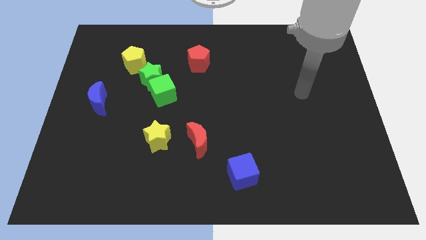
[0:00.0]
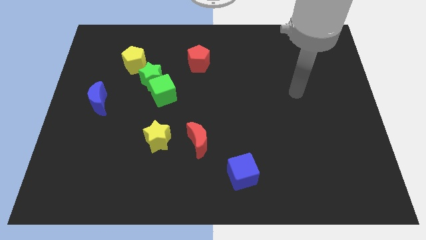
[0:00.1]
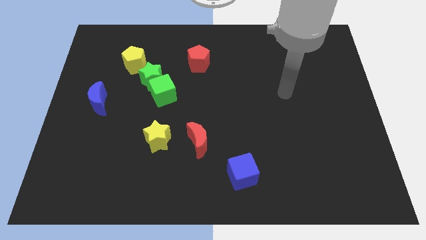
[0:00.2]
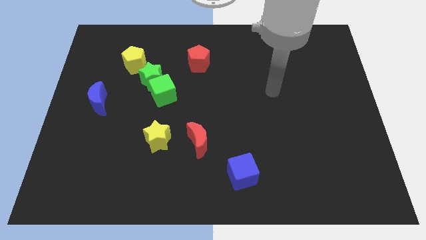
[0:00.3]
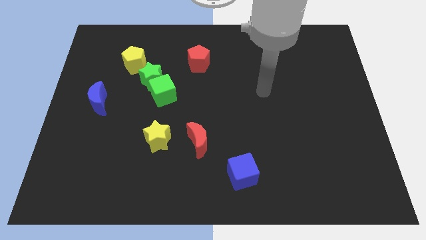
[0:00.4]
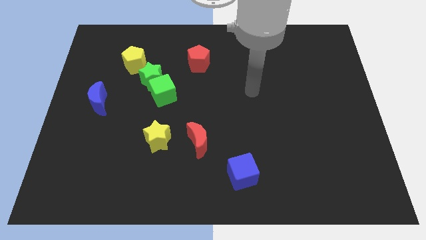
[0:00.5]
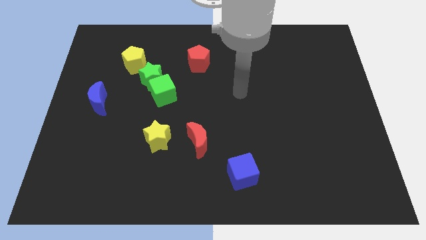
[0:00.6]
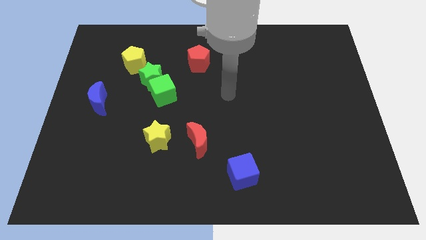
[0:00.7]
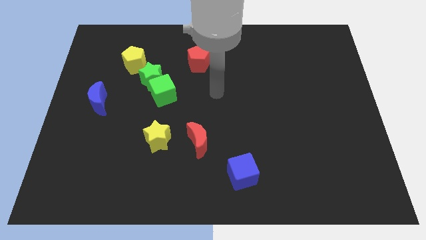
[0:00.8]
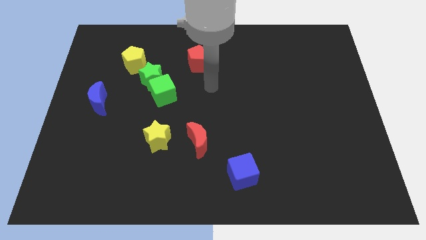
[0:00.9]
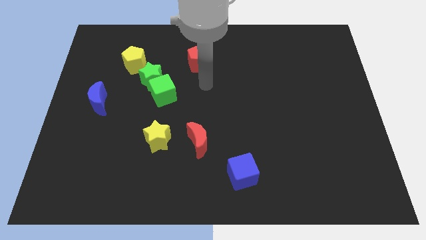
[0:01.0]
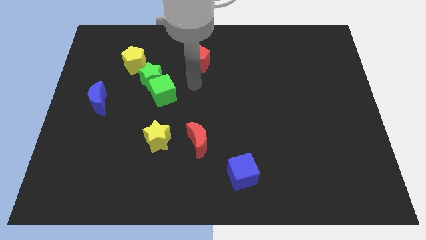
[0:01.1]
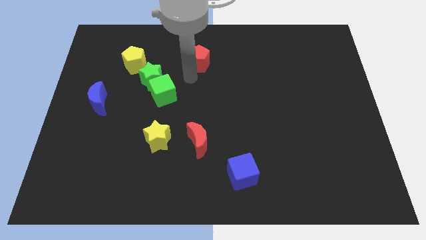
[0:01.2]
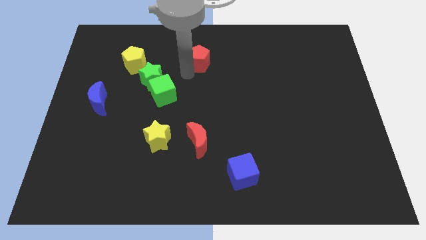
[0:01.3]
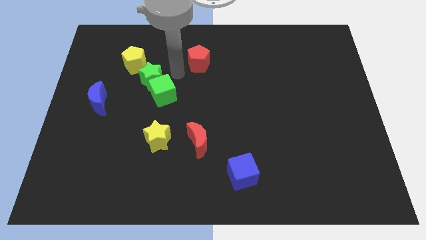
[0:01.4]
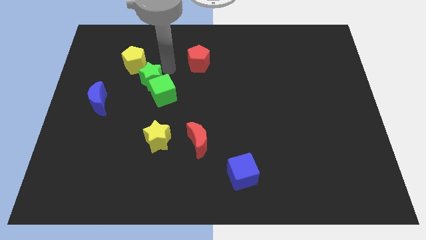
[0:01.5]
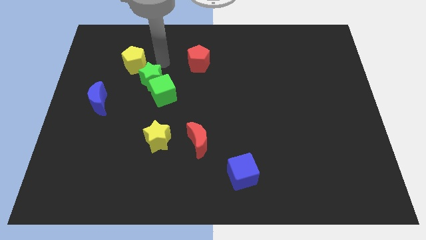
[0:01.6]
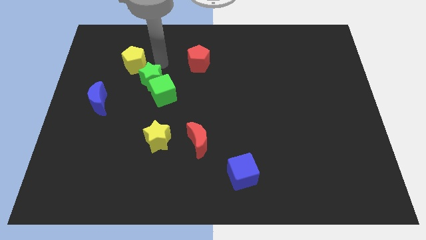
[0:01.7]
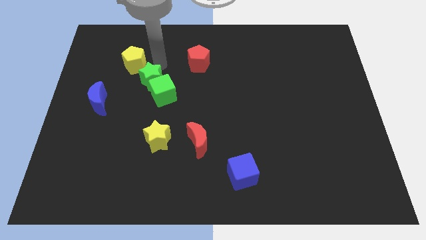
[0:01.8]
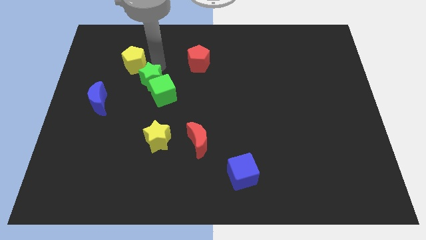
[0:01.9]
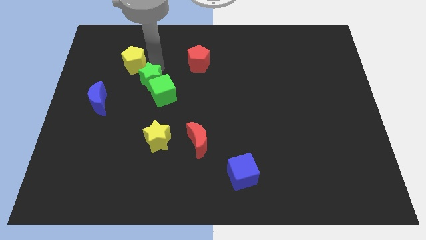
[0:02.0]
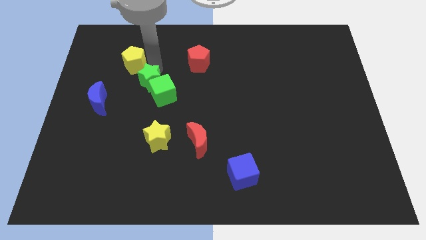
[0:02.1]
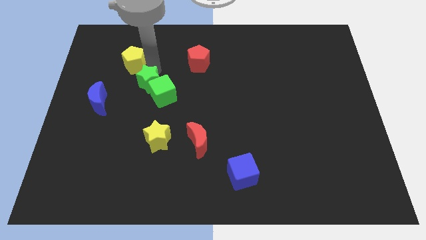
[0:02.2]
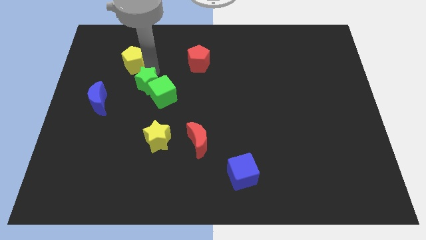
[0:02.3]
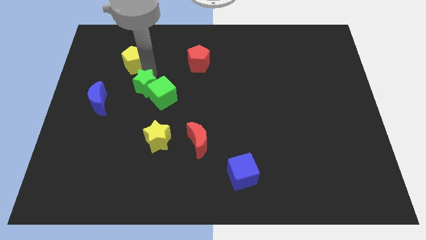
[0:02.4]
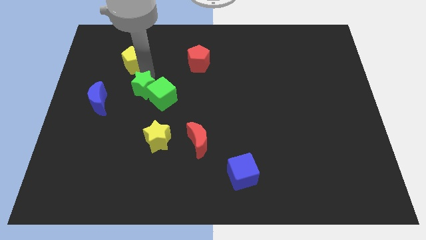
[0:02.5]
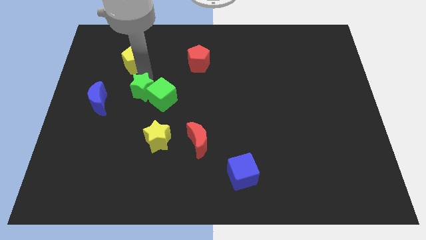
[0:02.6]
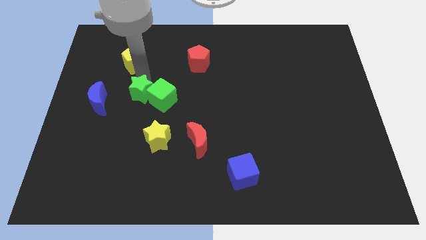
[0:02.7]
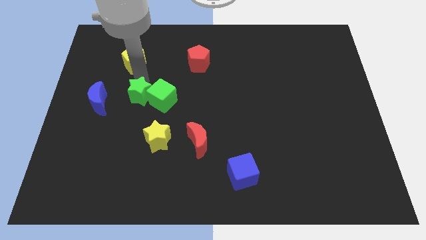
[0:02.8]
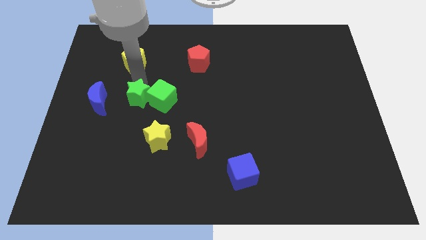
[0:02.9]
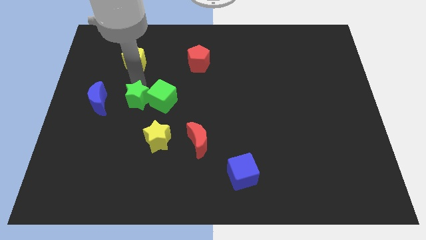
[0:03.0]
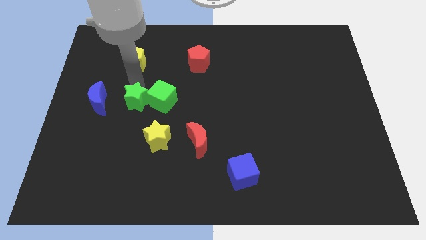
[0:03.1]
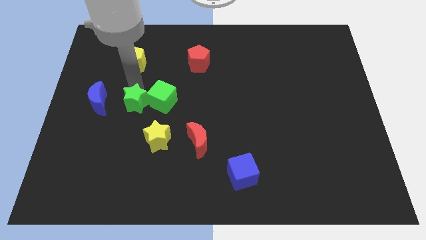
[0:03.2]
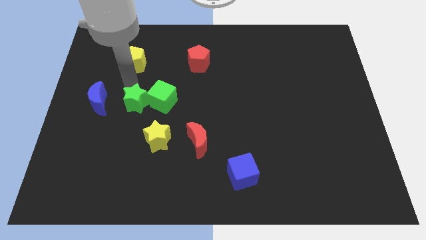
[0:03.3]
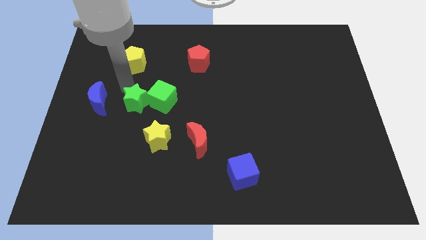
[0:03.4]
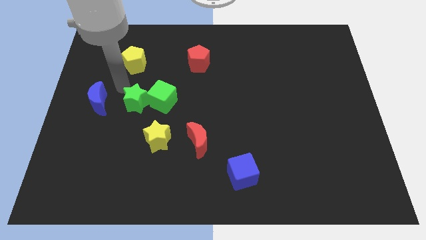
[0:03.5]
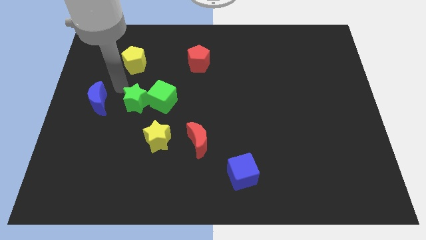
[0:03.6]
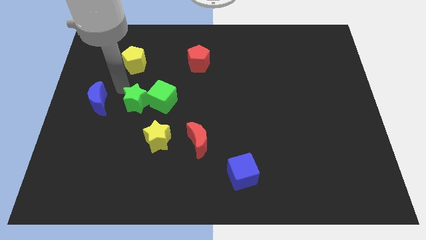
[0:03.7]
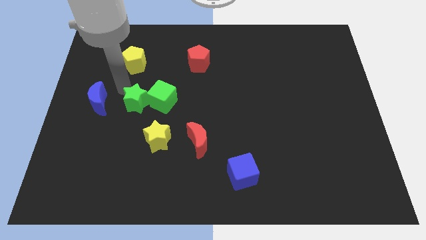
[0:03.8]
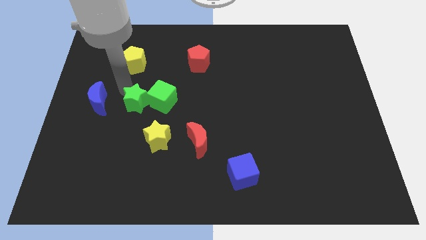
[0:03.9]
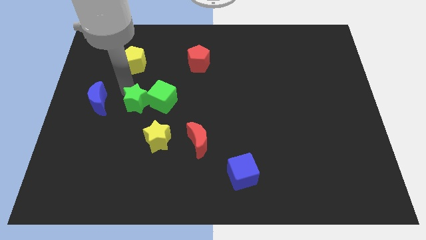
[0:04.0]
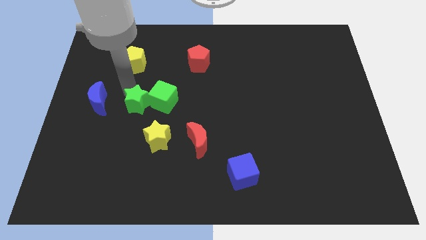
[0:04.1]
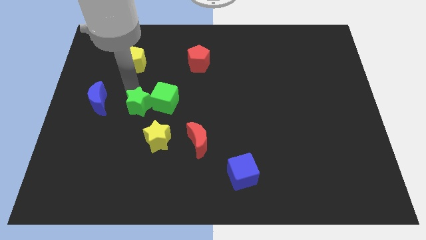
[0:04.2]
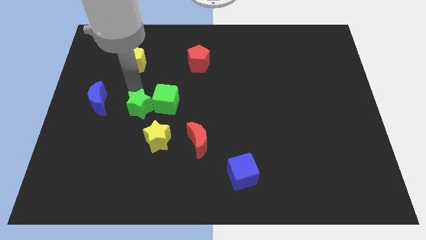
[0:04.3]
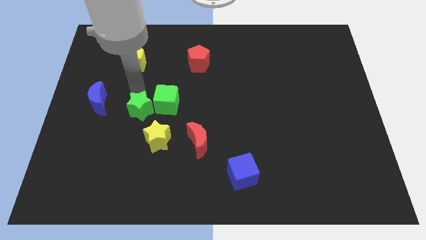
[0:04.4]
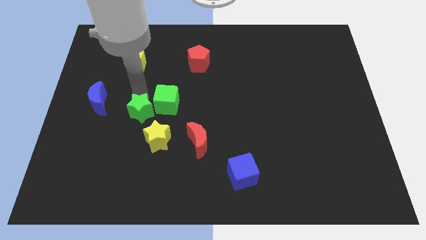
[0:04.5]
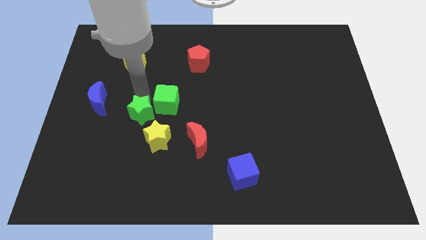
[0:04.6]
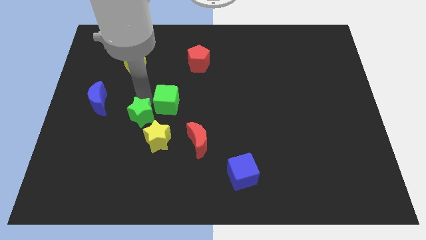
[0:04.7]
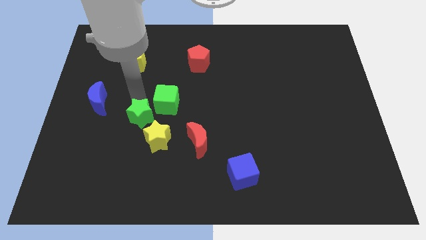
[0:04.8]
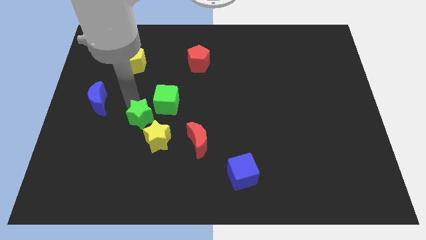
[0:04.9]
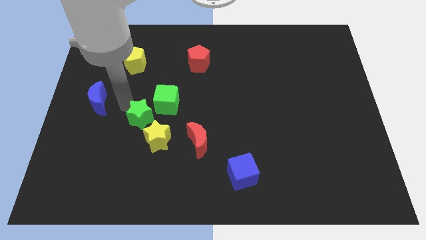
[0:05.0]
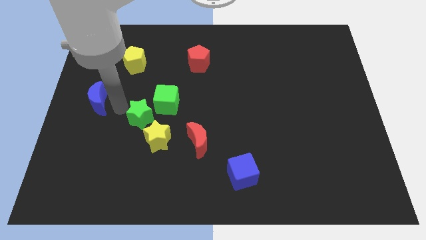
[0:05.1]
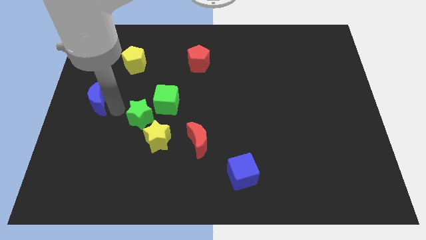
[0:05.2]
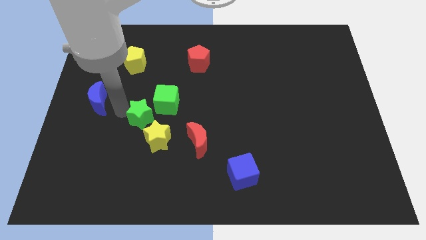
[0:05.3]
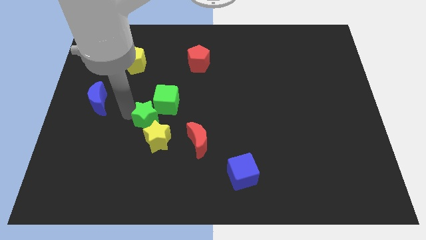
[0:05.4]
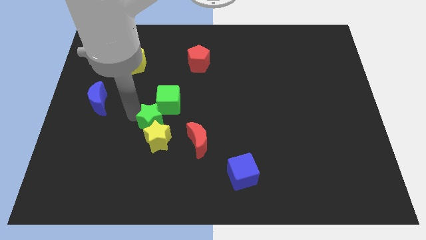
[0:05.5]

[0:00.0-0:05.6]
push the green star next to the yellow star

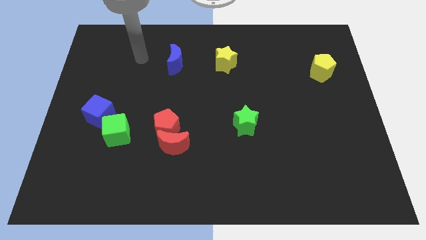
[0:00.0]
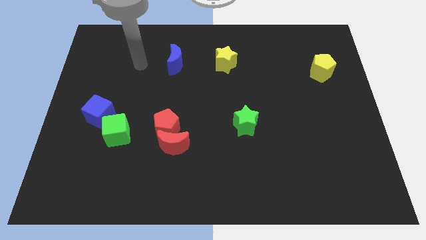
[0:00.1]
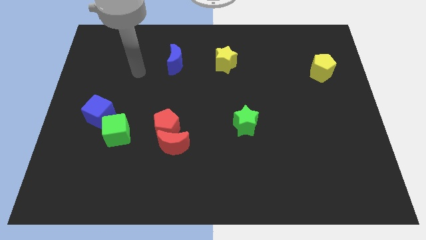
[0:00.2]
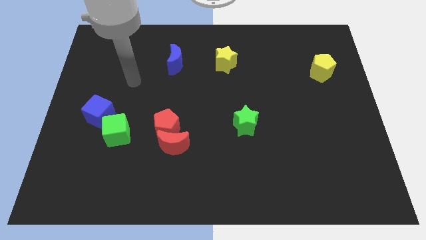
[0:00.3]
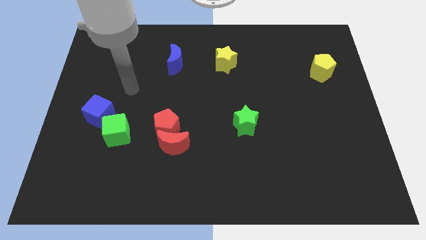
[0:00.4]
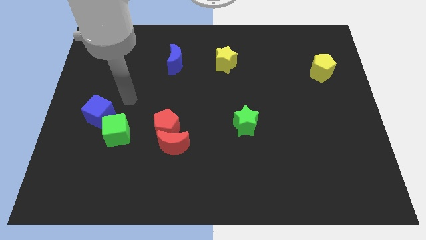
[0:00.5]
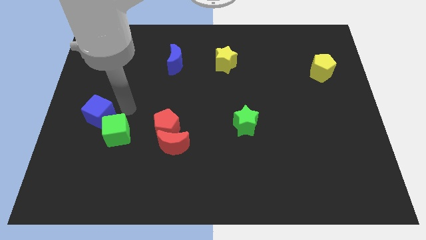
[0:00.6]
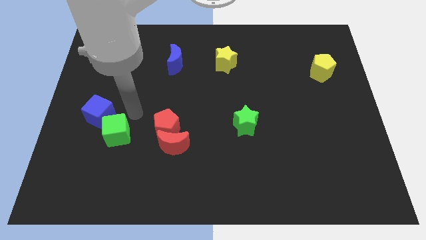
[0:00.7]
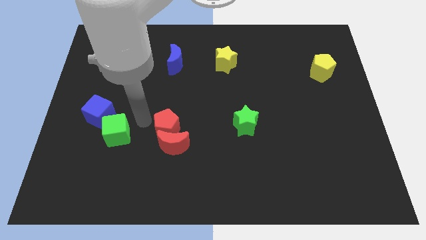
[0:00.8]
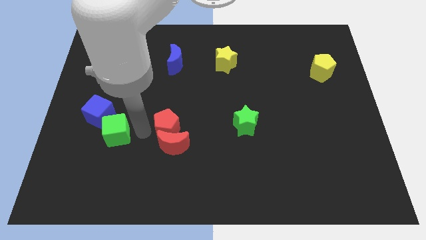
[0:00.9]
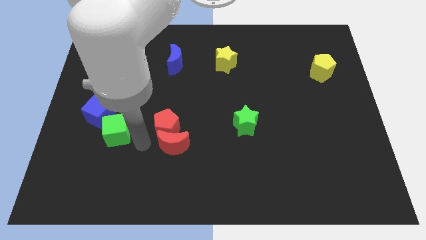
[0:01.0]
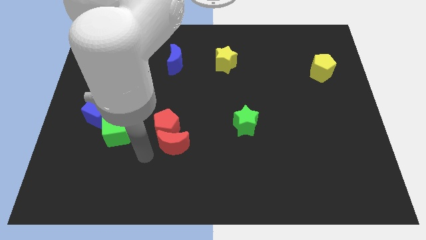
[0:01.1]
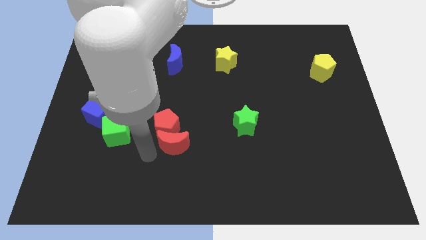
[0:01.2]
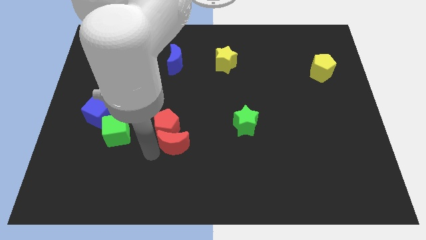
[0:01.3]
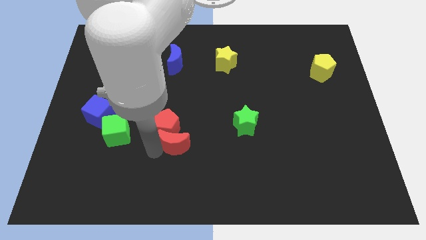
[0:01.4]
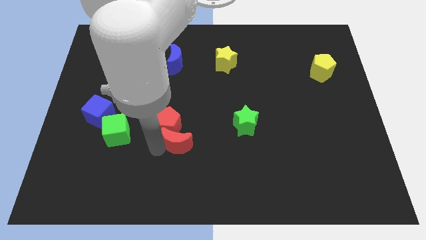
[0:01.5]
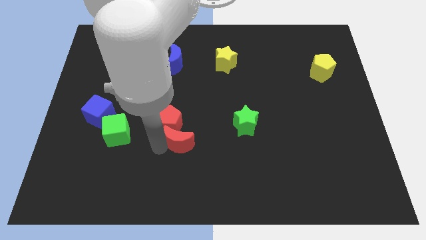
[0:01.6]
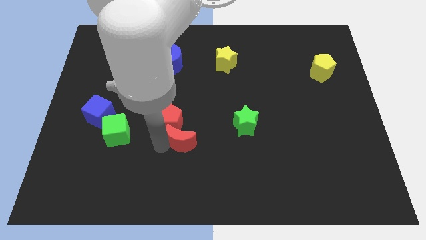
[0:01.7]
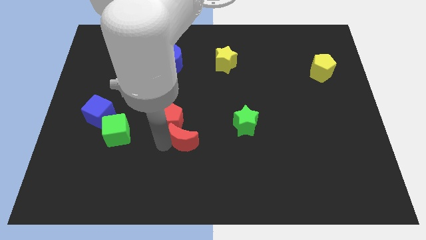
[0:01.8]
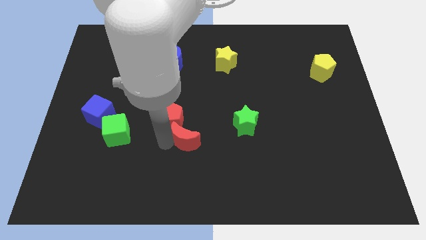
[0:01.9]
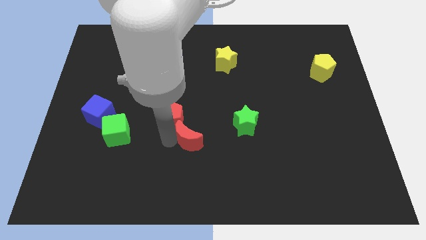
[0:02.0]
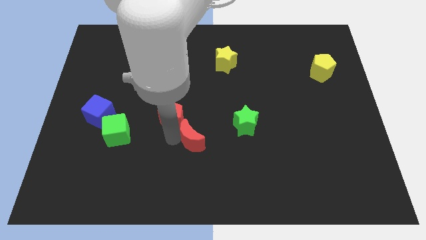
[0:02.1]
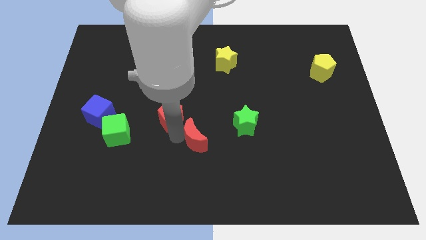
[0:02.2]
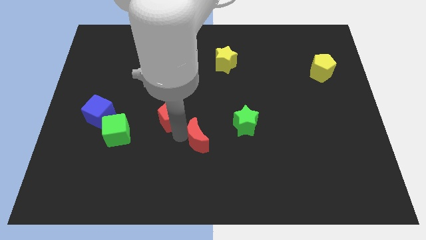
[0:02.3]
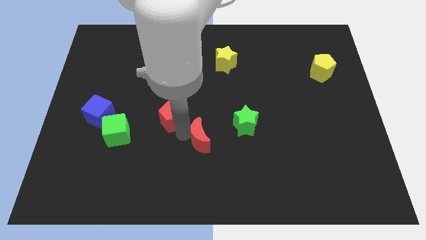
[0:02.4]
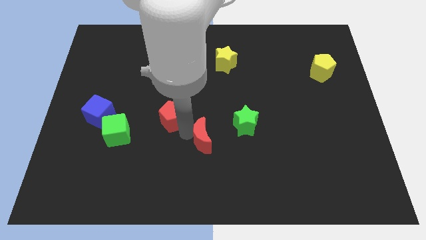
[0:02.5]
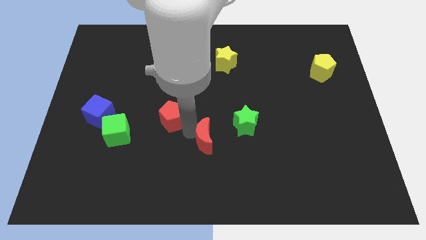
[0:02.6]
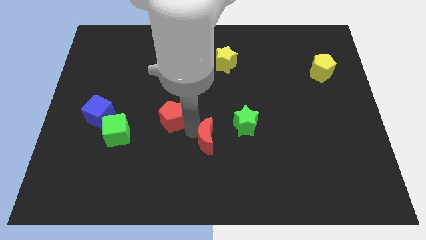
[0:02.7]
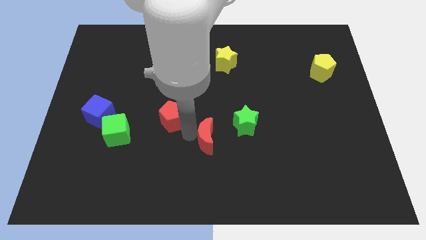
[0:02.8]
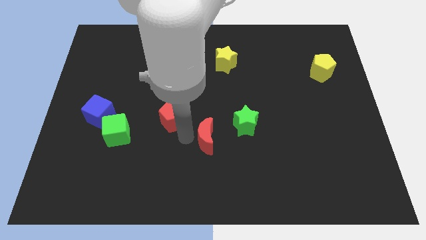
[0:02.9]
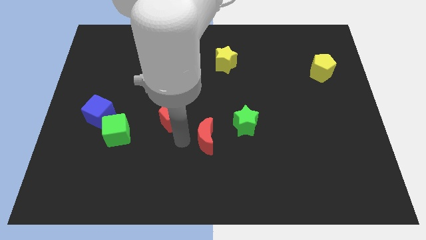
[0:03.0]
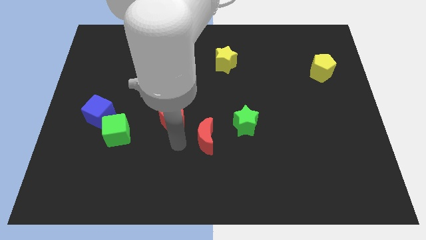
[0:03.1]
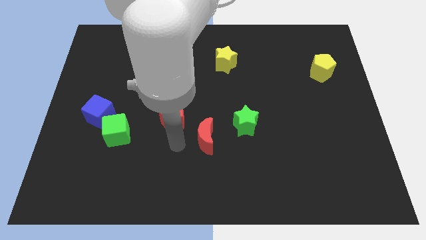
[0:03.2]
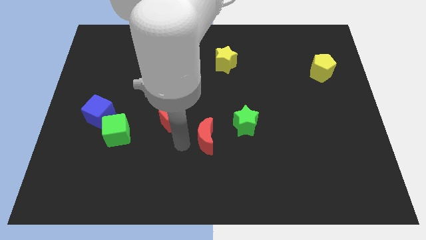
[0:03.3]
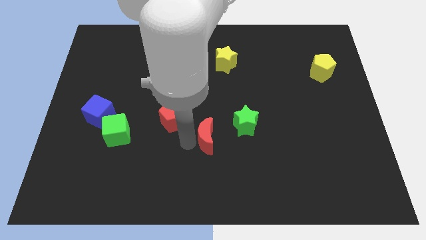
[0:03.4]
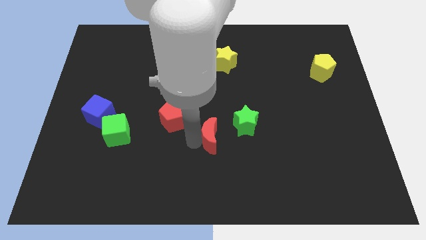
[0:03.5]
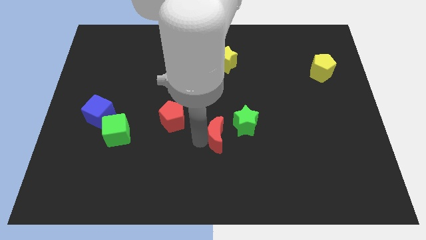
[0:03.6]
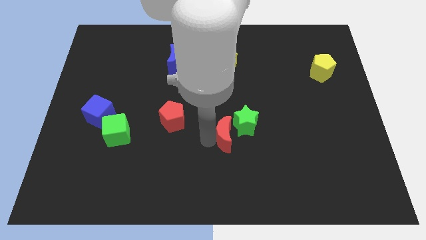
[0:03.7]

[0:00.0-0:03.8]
move the red moon next to the green star
